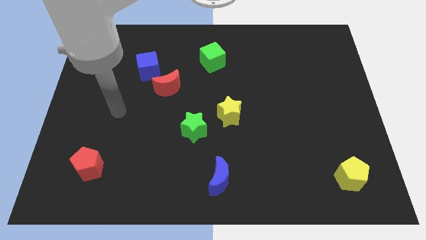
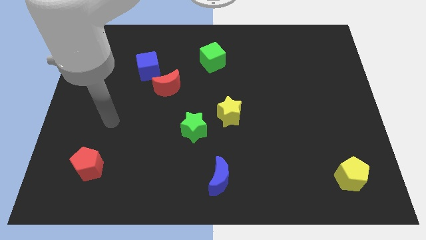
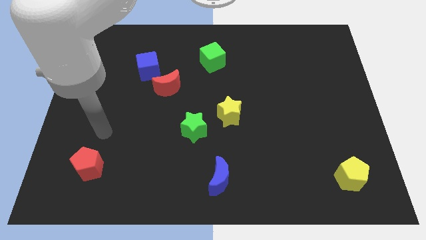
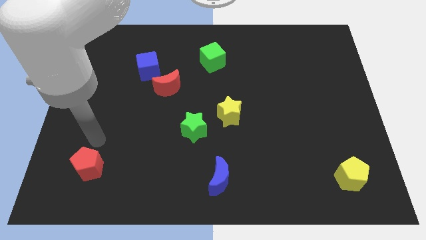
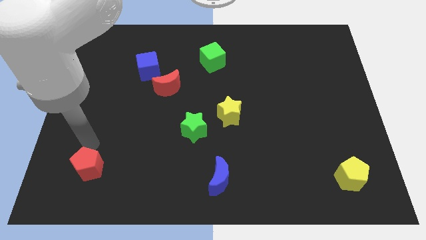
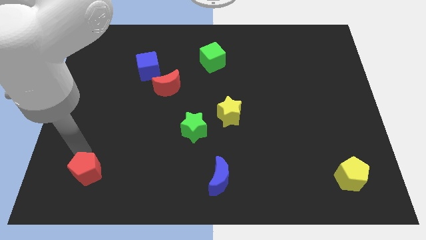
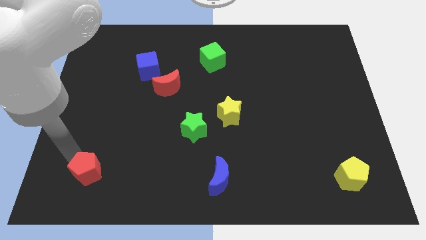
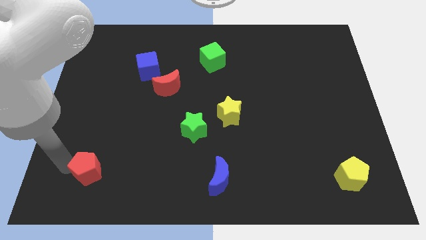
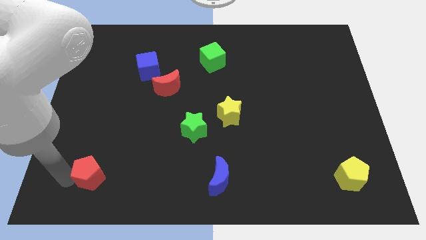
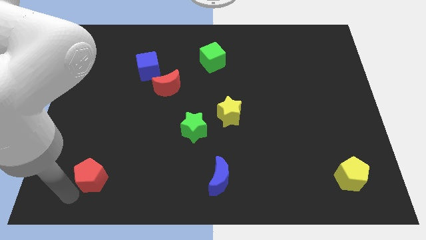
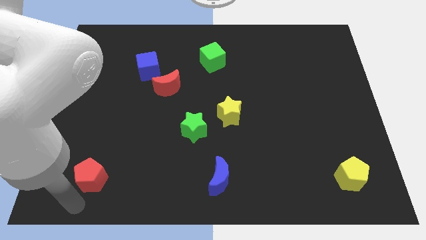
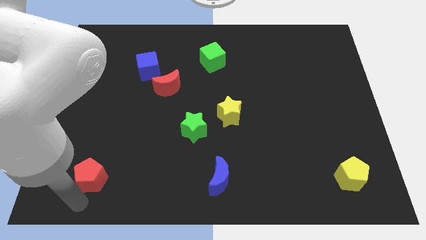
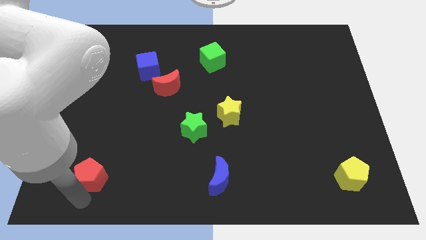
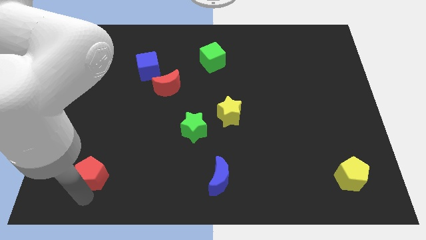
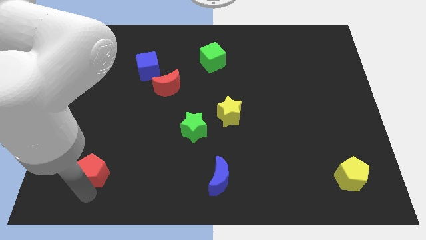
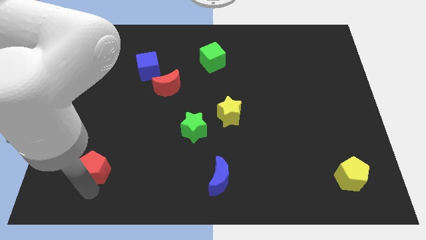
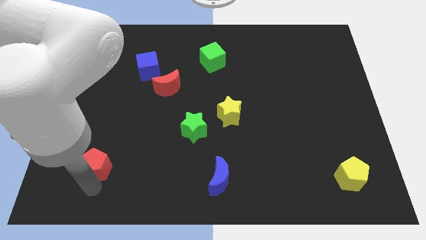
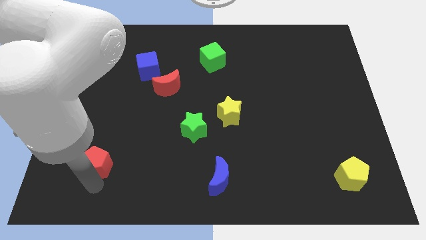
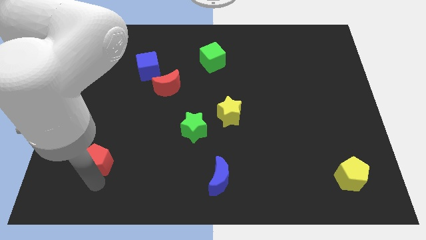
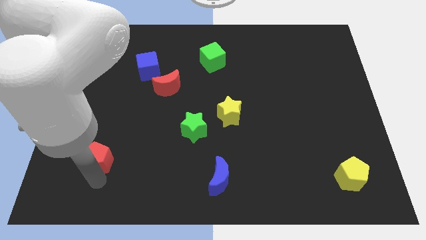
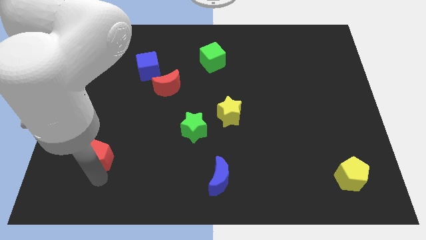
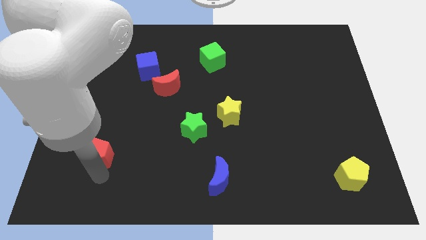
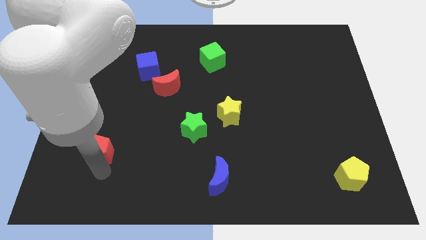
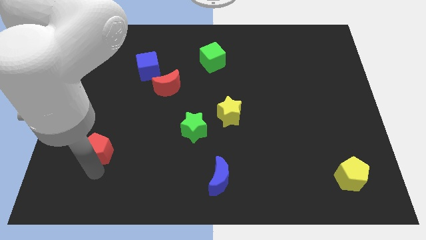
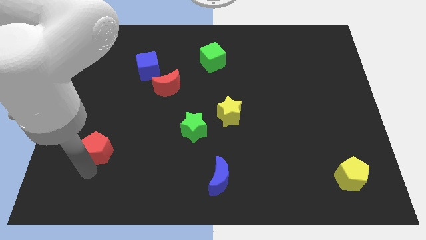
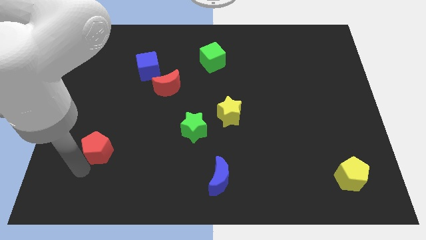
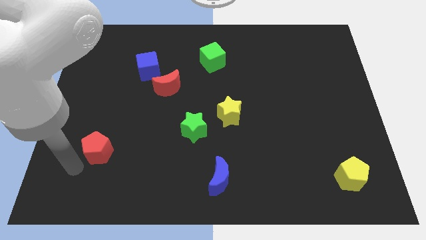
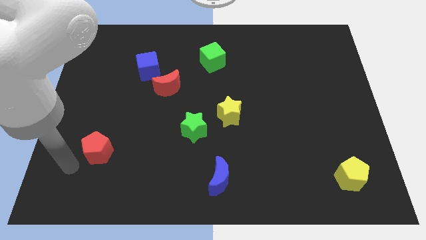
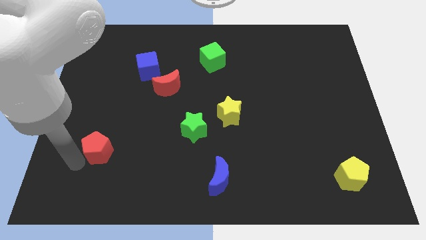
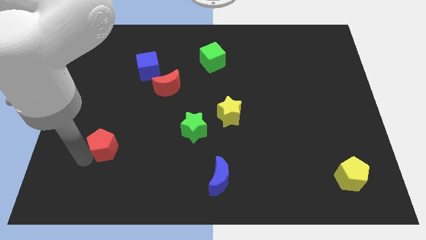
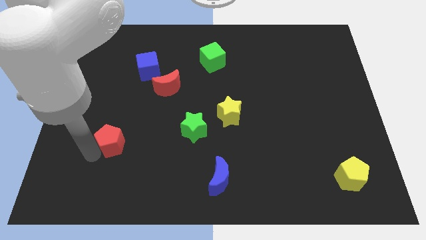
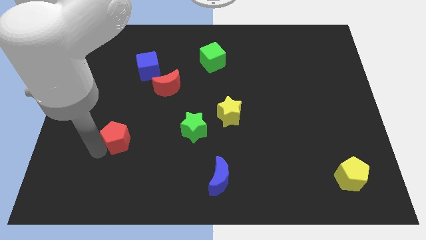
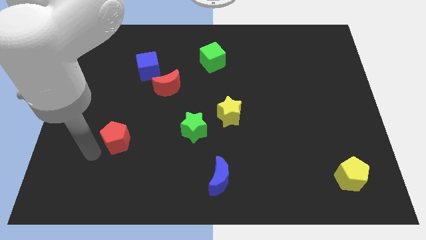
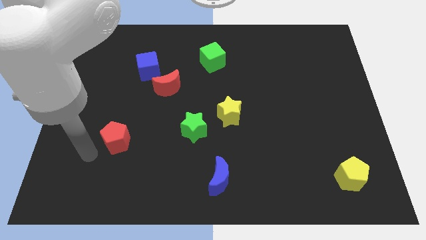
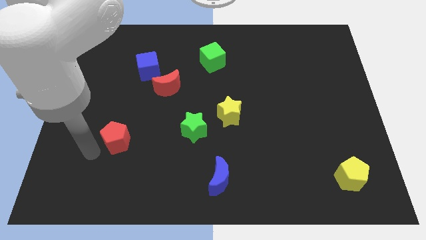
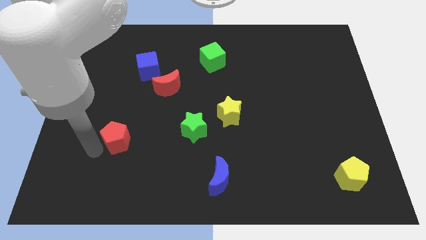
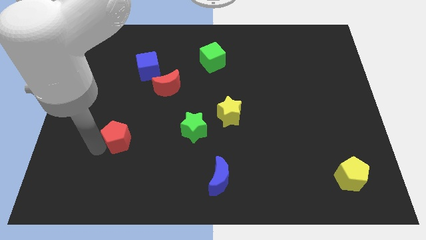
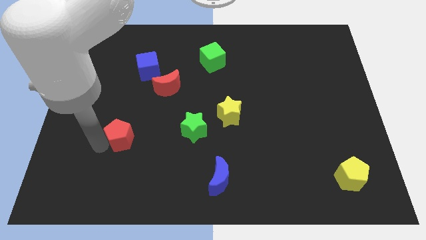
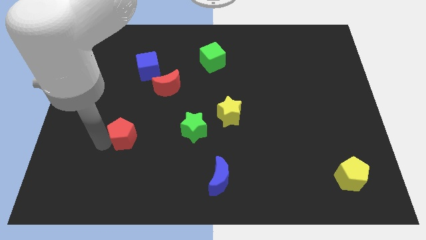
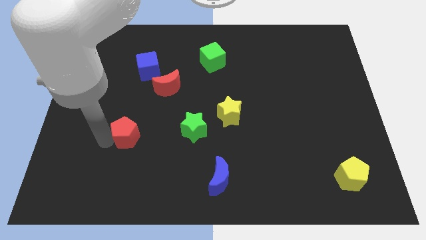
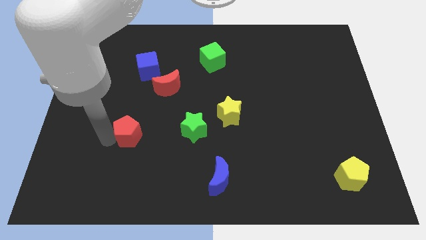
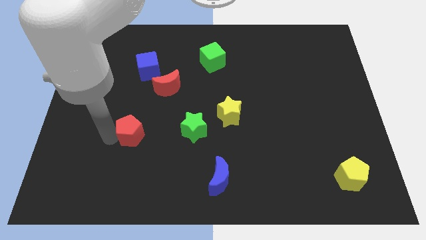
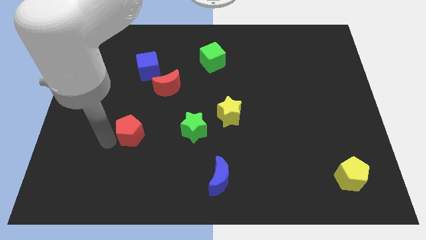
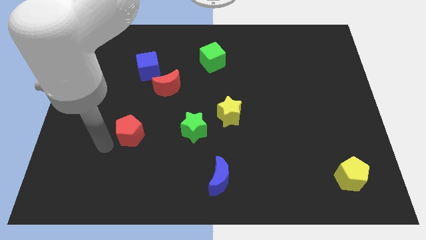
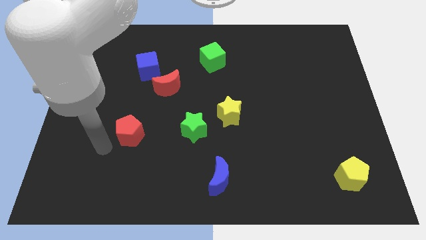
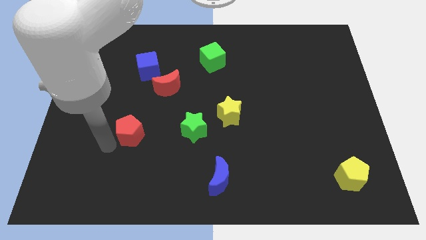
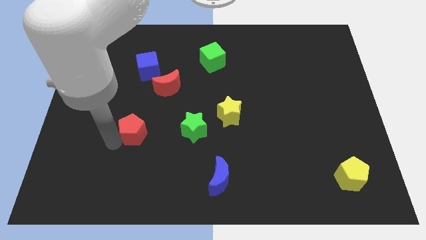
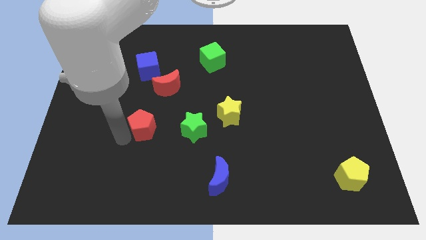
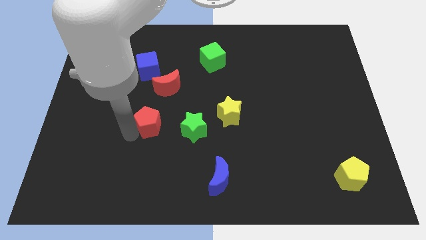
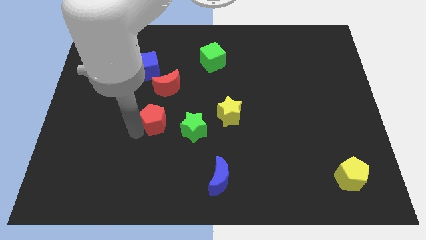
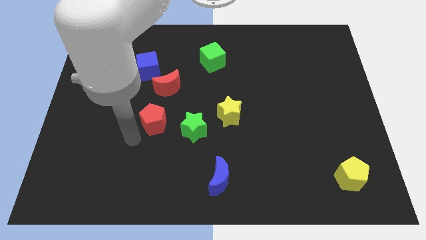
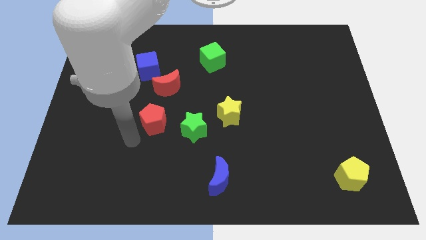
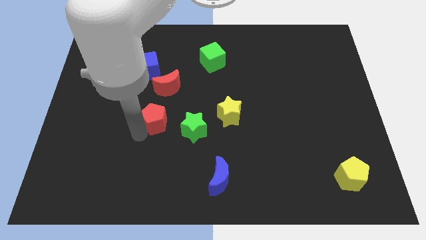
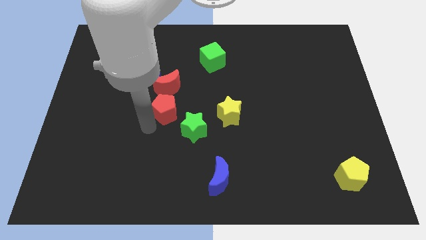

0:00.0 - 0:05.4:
move the red pentagon upwards and right diagonally

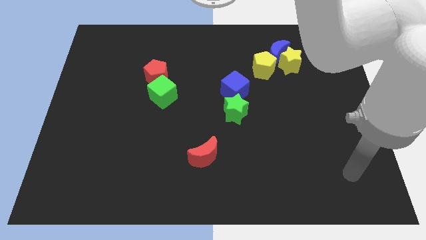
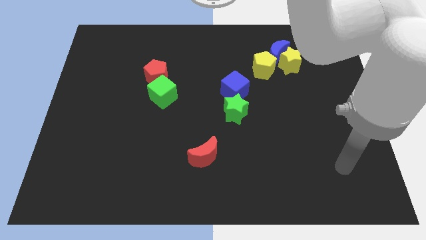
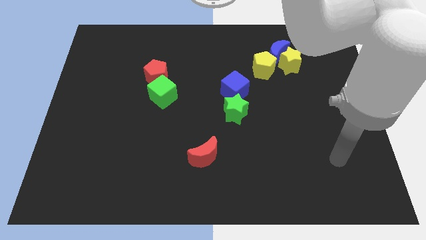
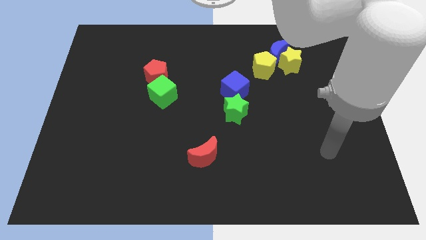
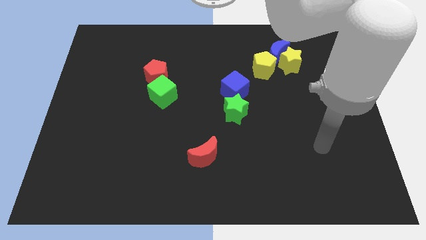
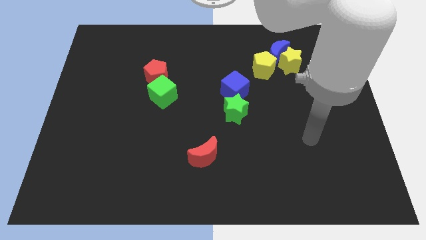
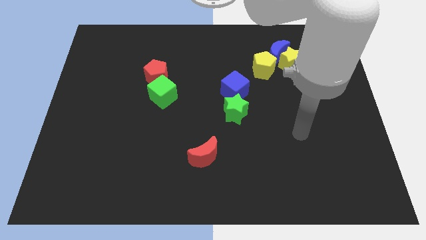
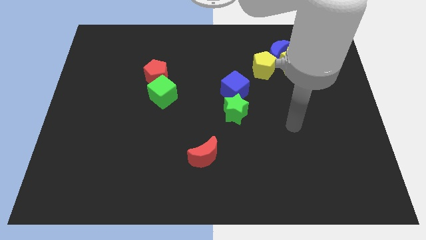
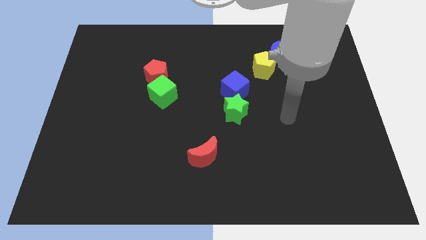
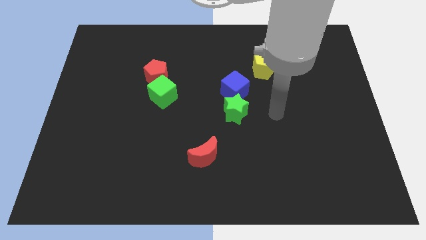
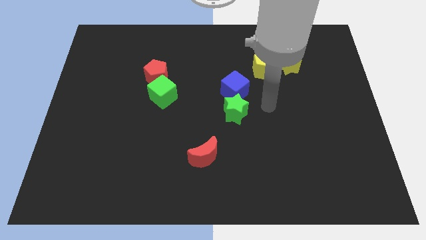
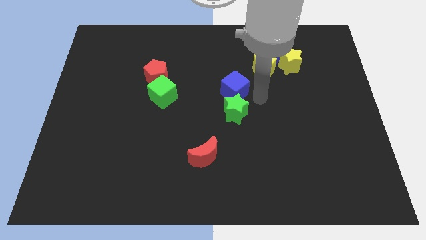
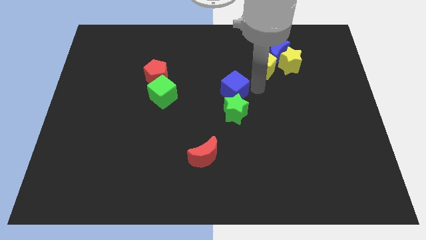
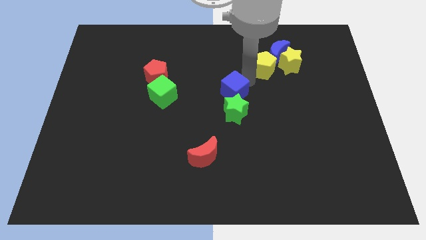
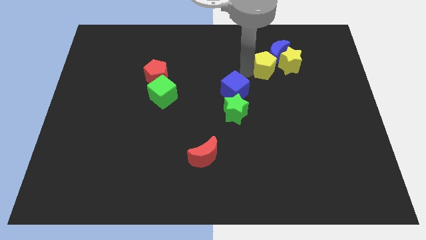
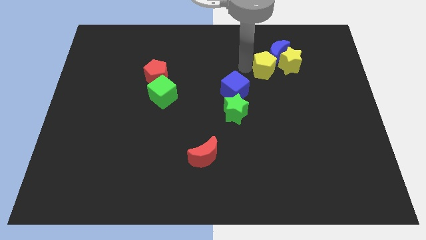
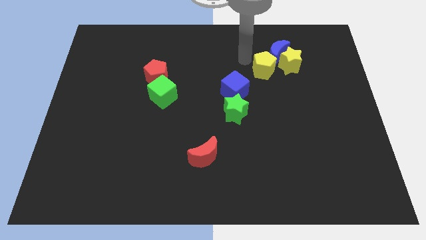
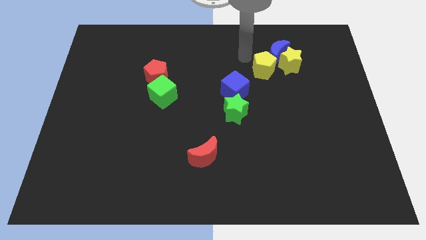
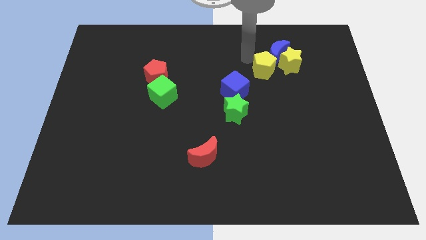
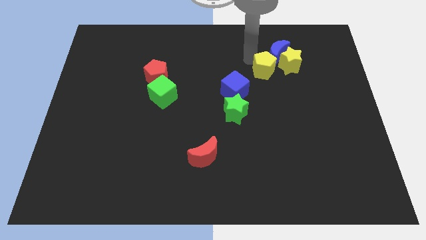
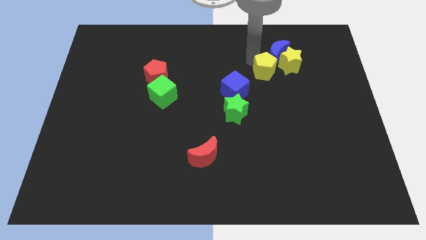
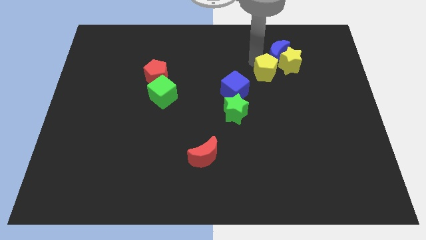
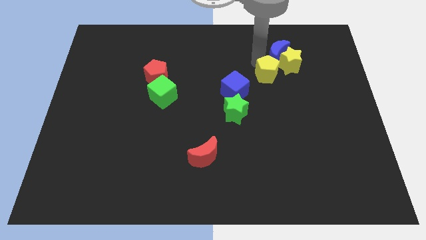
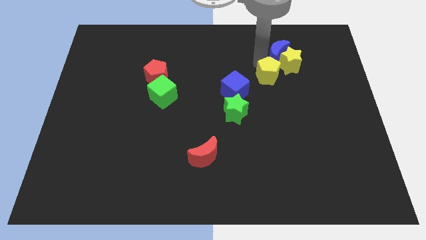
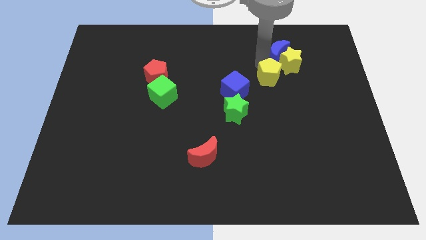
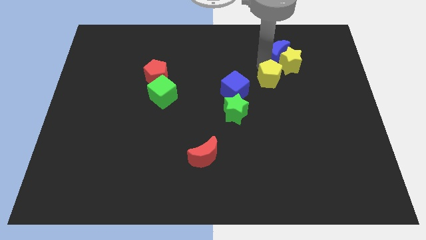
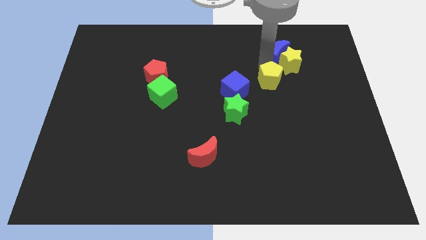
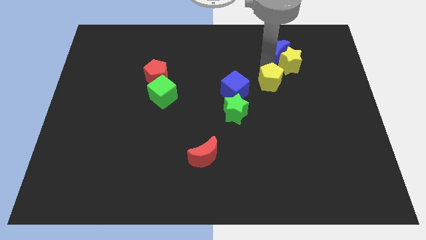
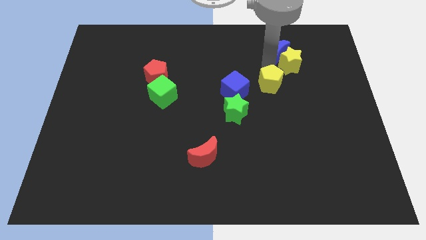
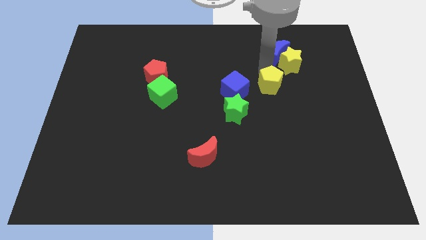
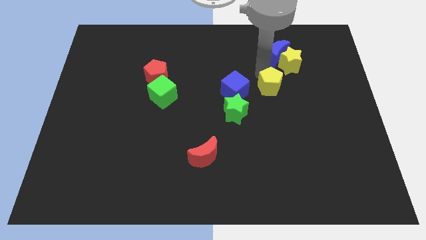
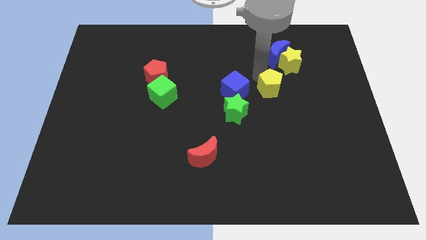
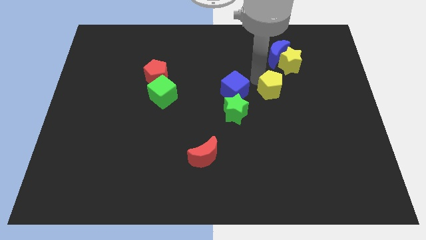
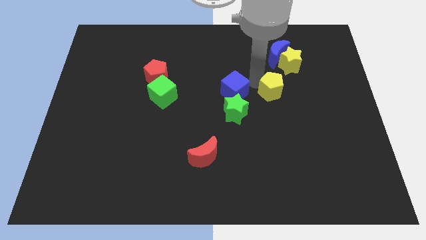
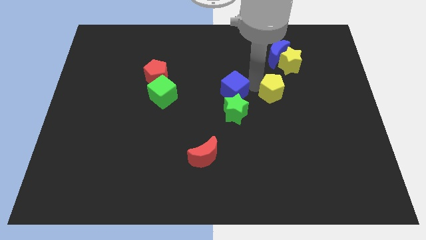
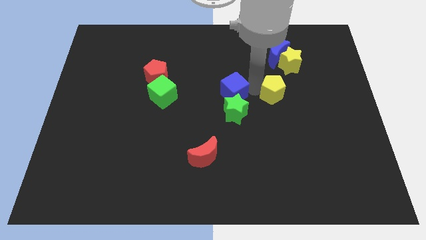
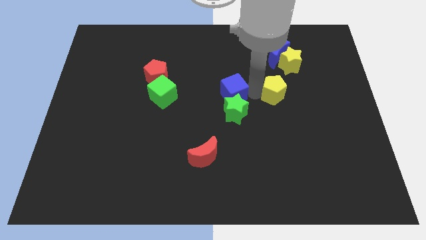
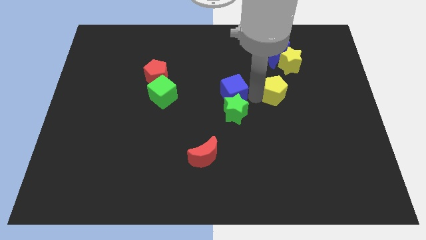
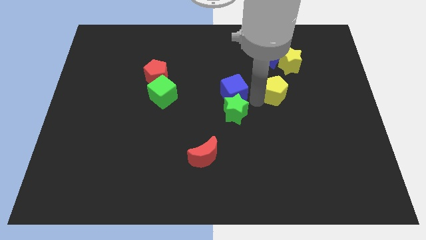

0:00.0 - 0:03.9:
slide the yellow pentagon downwards and to the right diagonally a bit
